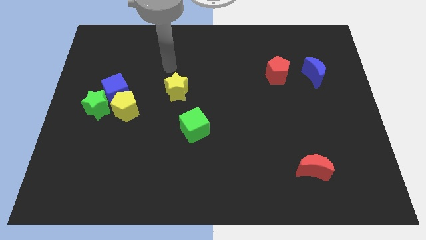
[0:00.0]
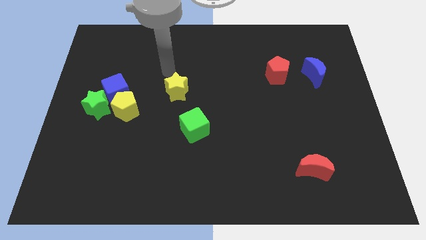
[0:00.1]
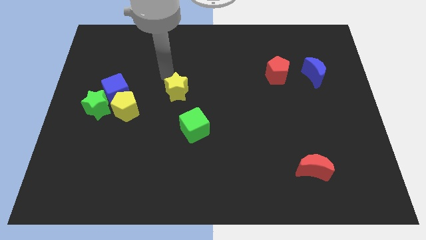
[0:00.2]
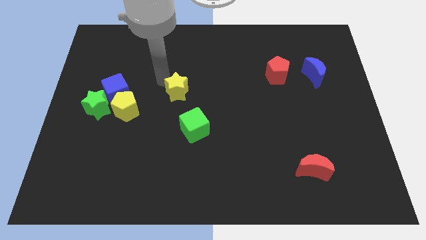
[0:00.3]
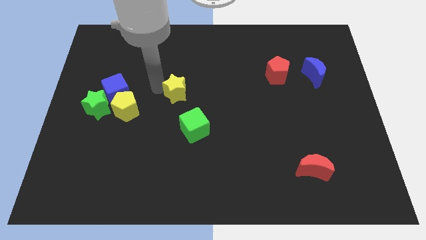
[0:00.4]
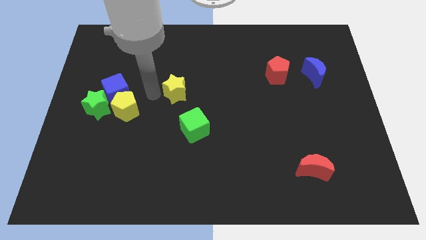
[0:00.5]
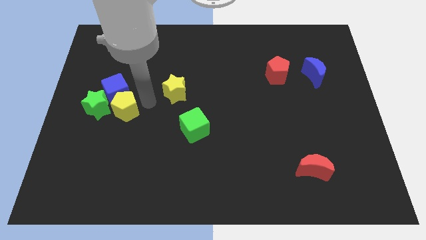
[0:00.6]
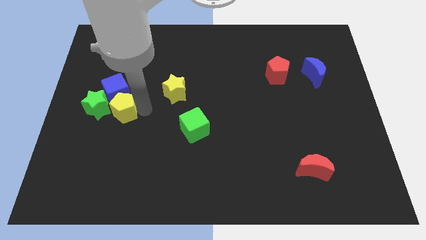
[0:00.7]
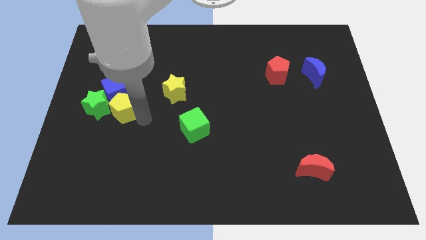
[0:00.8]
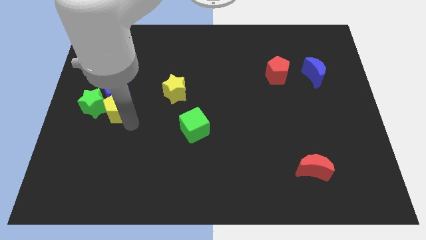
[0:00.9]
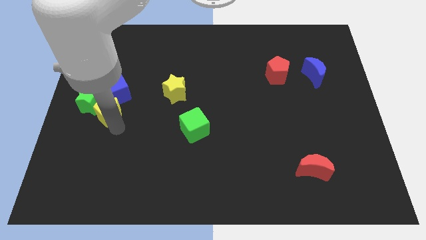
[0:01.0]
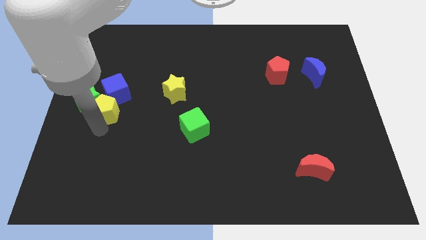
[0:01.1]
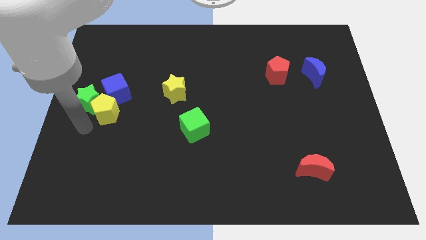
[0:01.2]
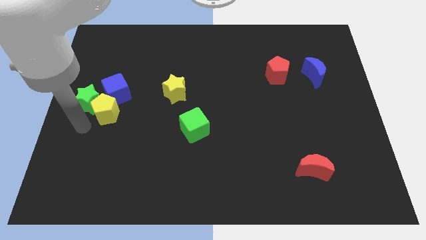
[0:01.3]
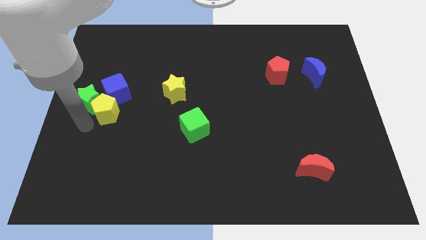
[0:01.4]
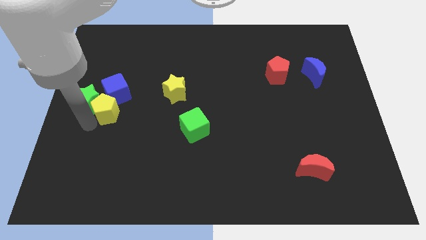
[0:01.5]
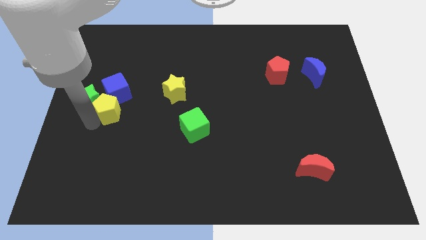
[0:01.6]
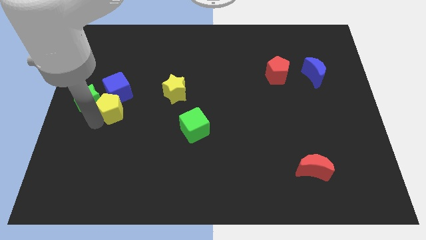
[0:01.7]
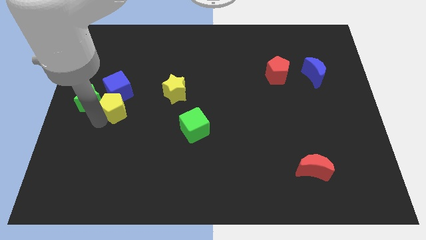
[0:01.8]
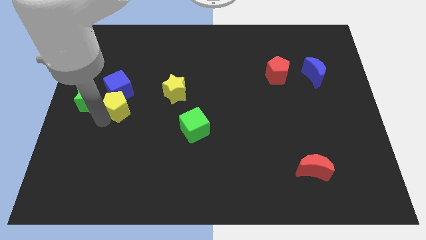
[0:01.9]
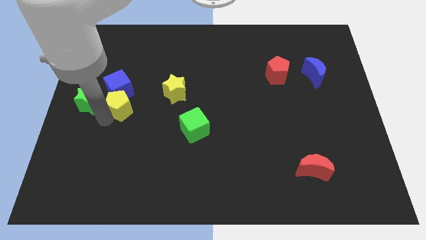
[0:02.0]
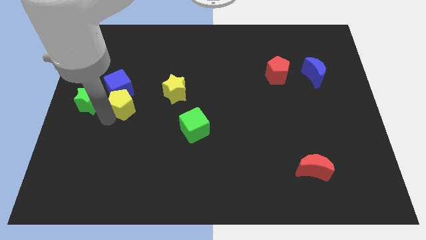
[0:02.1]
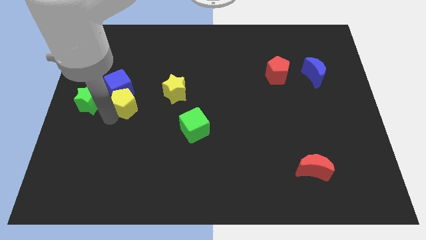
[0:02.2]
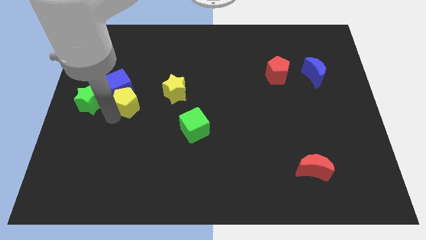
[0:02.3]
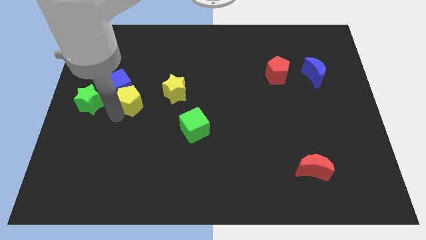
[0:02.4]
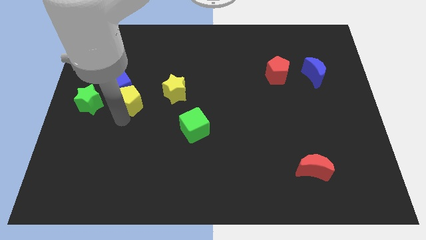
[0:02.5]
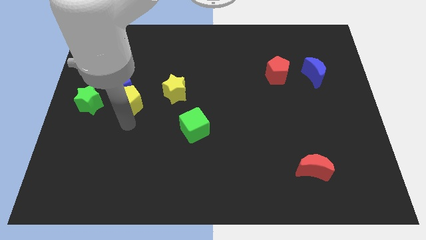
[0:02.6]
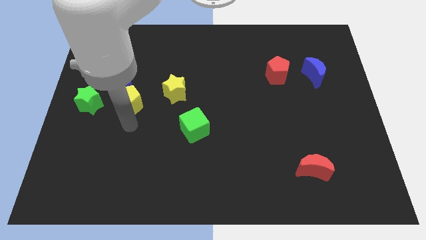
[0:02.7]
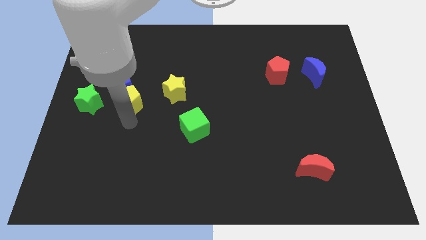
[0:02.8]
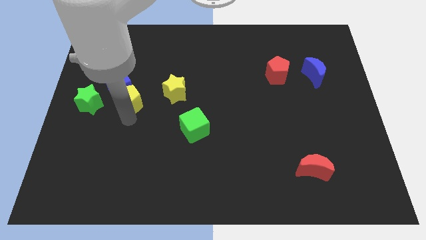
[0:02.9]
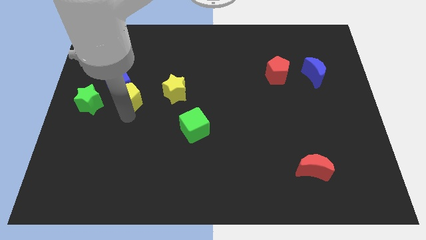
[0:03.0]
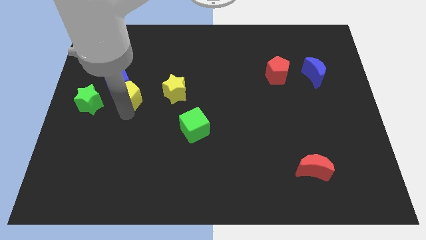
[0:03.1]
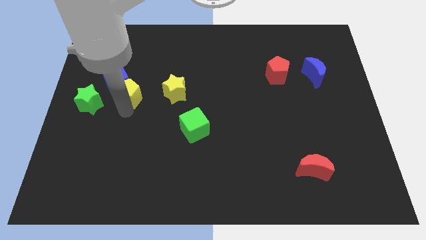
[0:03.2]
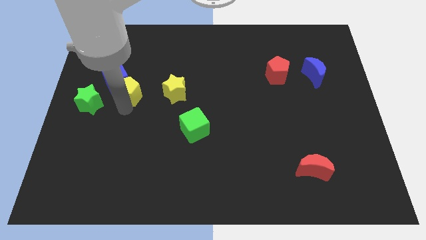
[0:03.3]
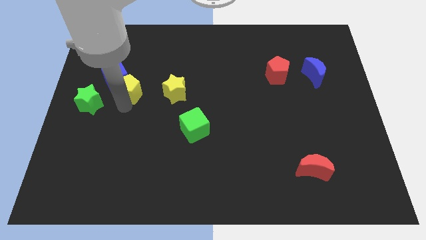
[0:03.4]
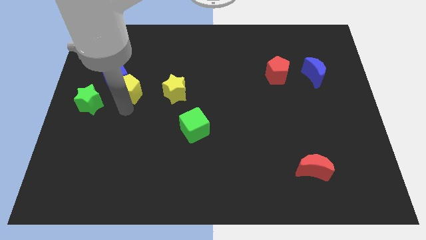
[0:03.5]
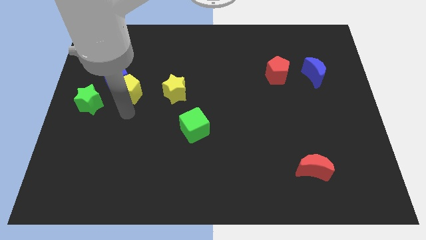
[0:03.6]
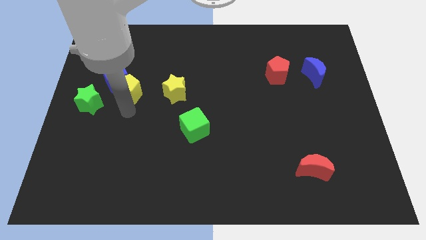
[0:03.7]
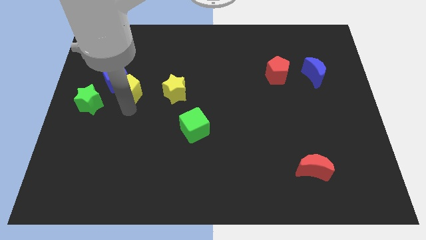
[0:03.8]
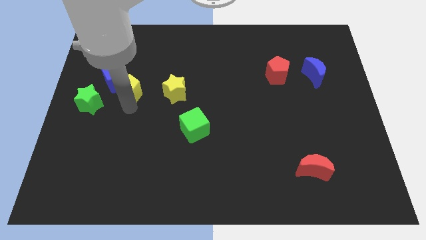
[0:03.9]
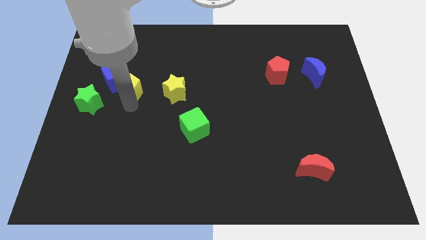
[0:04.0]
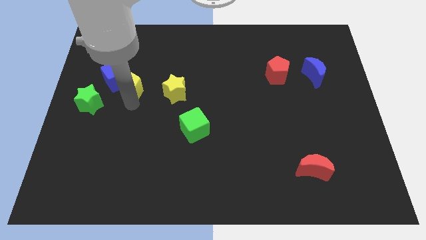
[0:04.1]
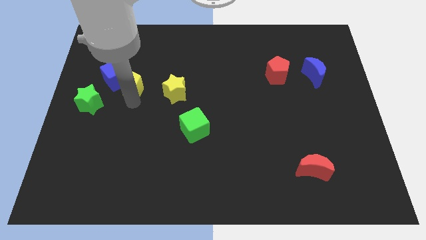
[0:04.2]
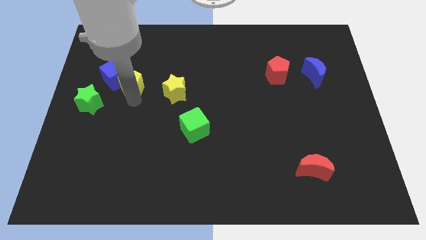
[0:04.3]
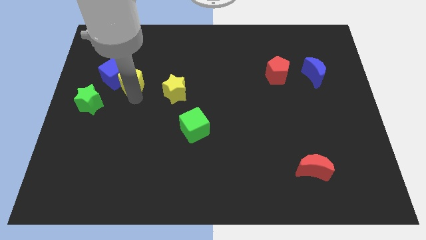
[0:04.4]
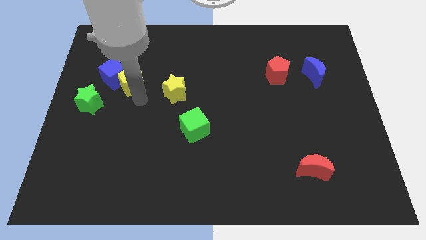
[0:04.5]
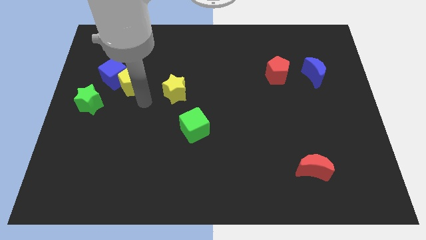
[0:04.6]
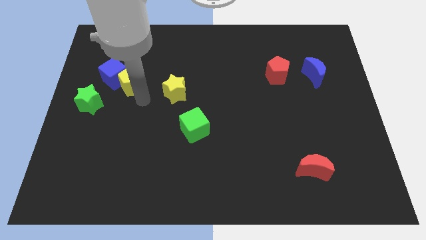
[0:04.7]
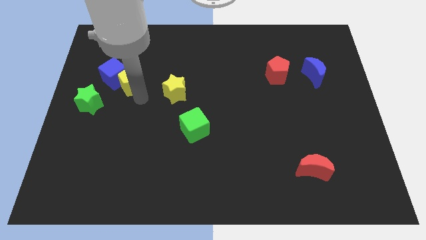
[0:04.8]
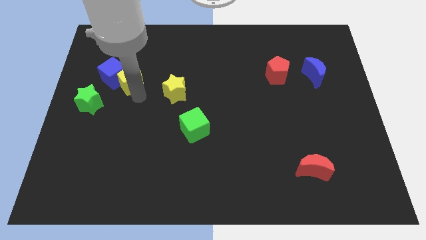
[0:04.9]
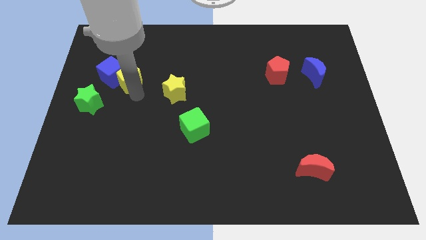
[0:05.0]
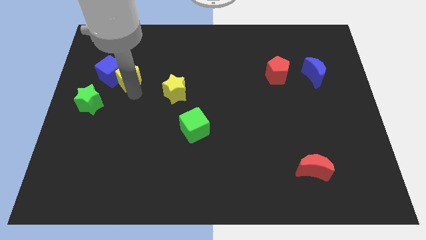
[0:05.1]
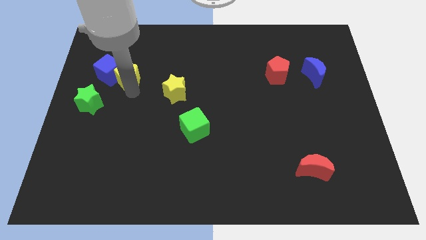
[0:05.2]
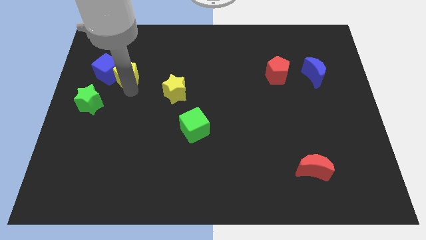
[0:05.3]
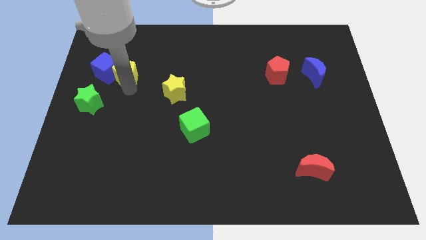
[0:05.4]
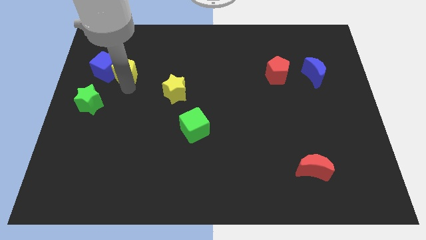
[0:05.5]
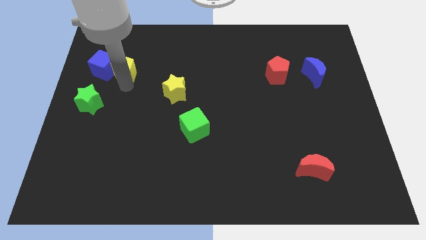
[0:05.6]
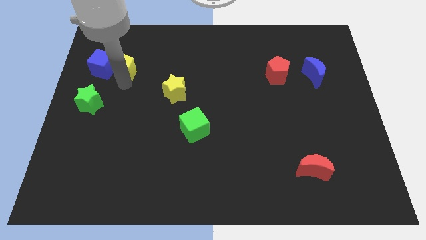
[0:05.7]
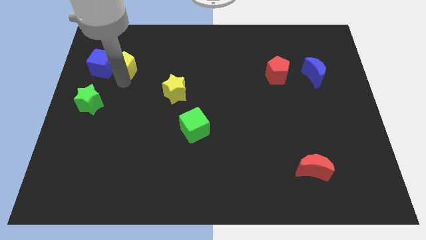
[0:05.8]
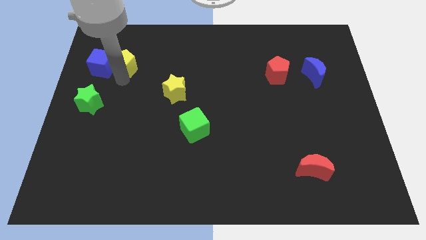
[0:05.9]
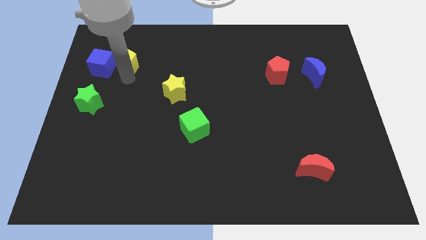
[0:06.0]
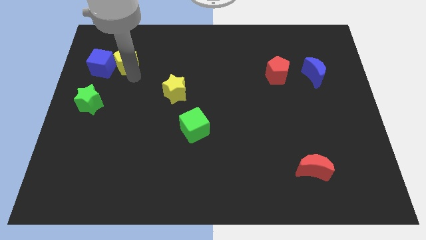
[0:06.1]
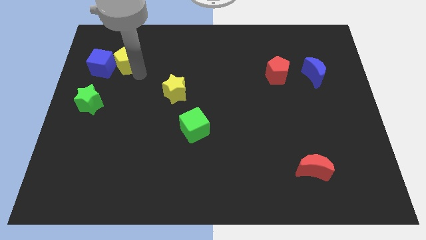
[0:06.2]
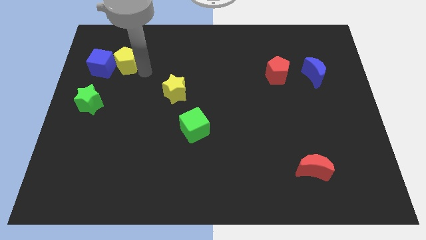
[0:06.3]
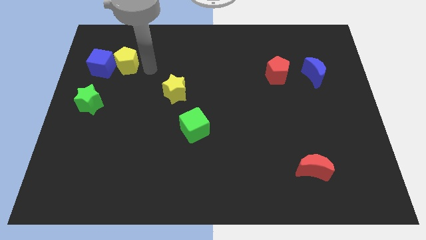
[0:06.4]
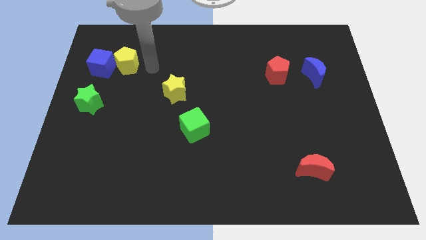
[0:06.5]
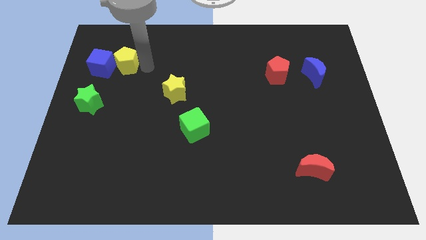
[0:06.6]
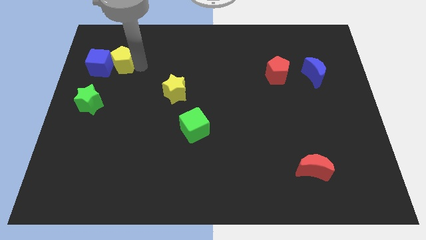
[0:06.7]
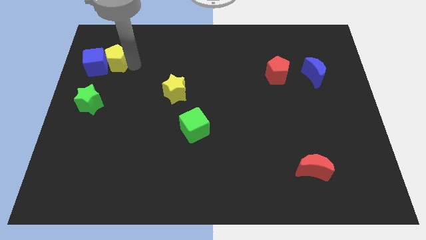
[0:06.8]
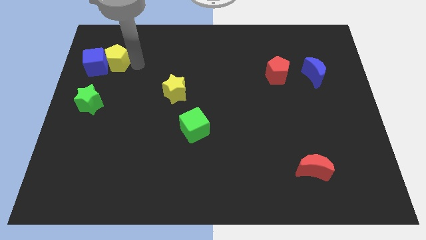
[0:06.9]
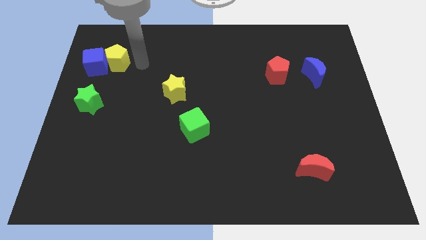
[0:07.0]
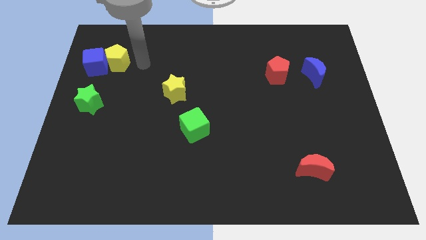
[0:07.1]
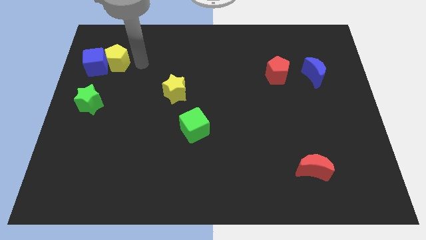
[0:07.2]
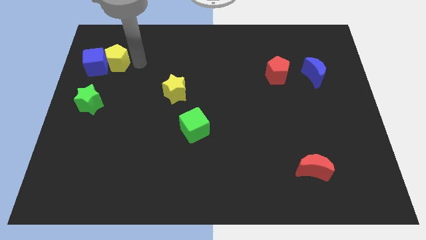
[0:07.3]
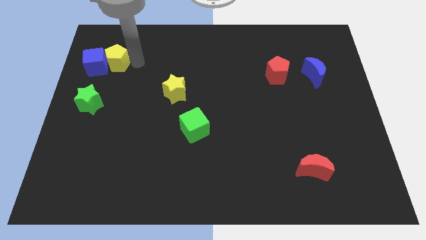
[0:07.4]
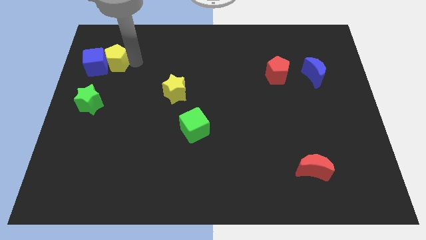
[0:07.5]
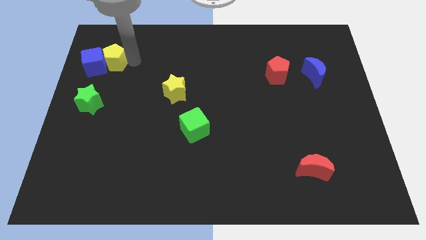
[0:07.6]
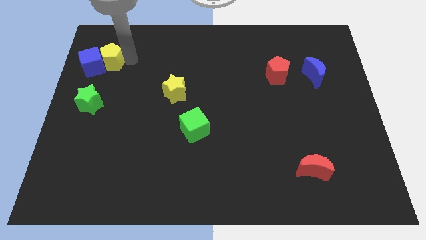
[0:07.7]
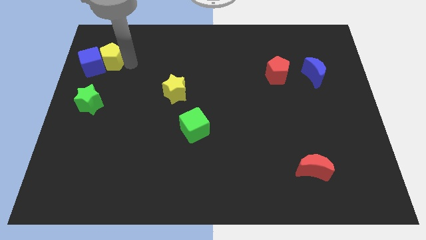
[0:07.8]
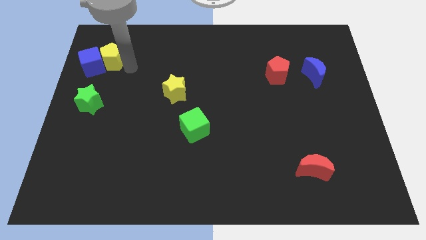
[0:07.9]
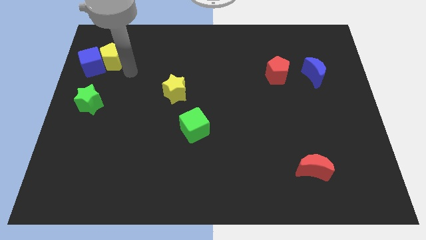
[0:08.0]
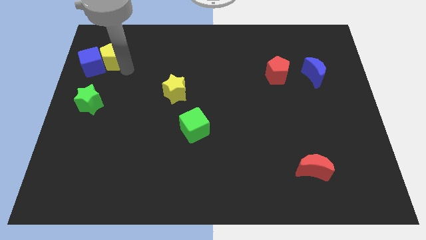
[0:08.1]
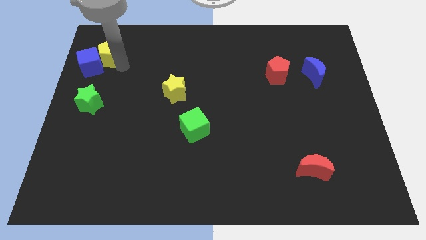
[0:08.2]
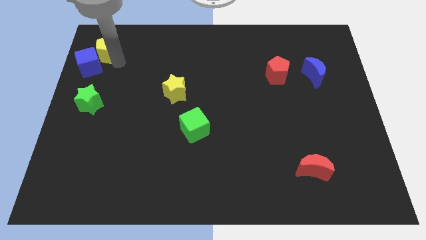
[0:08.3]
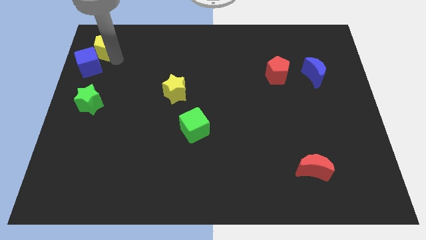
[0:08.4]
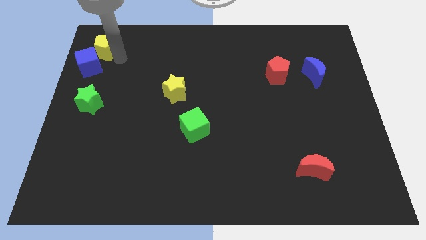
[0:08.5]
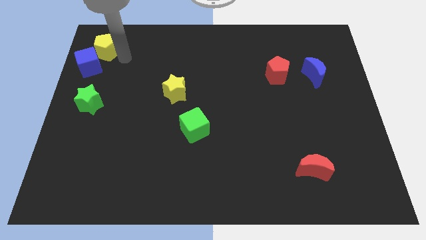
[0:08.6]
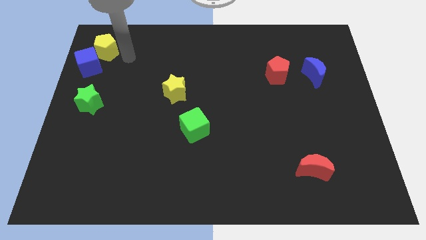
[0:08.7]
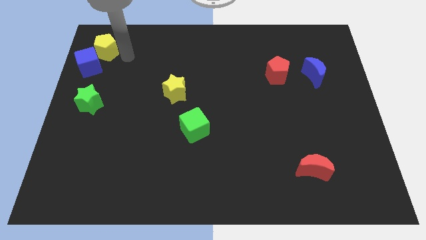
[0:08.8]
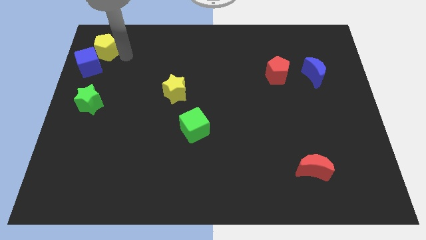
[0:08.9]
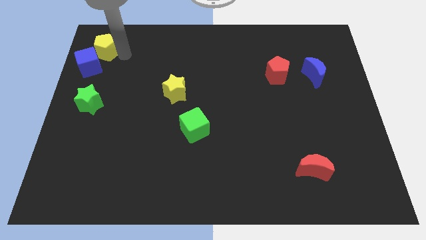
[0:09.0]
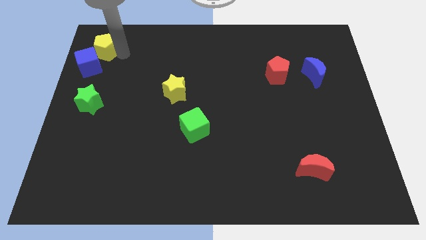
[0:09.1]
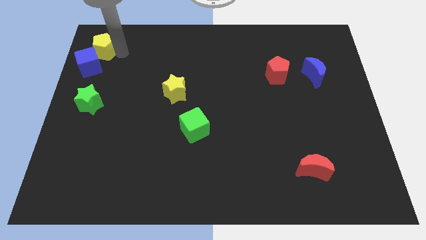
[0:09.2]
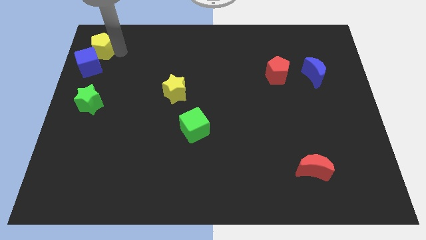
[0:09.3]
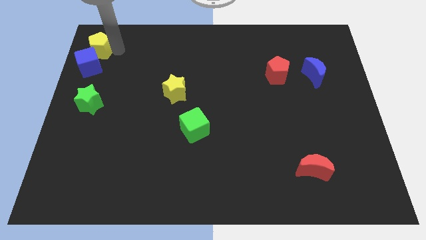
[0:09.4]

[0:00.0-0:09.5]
push the yellow pentagon to the upper left corner
